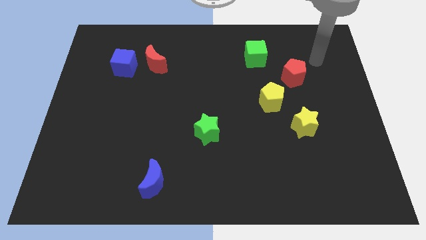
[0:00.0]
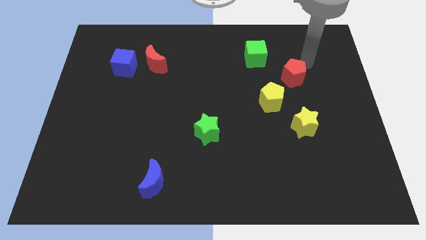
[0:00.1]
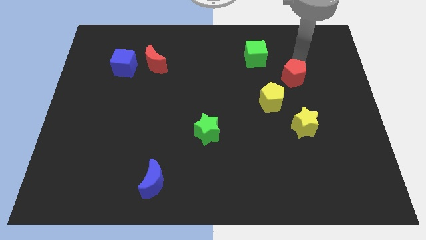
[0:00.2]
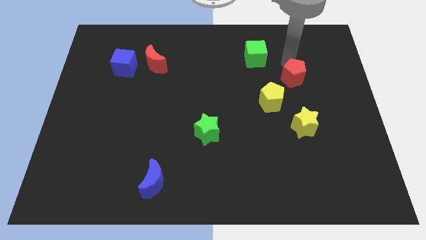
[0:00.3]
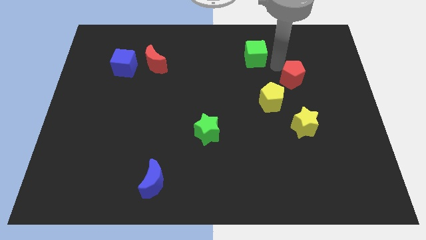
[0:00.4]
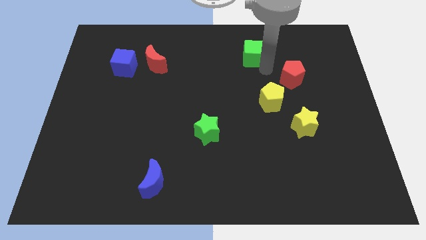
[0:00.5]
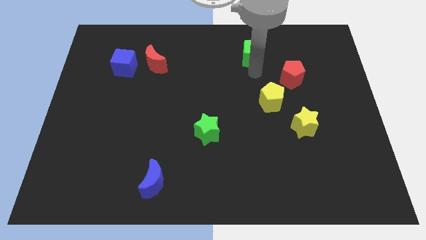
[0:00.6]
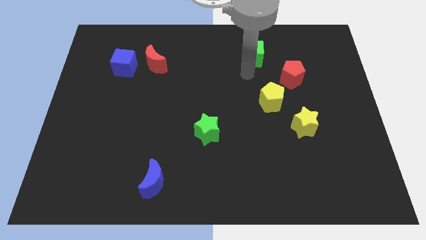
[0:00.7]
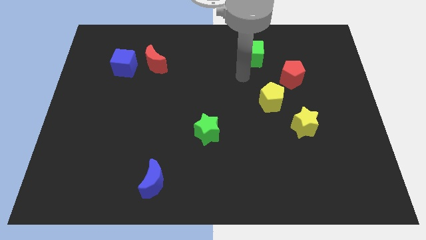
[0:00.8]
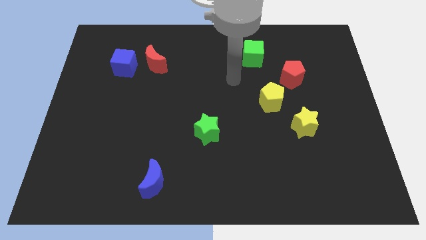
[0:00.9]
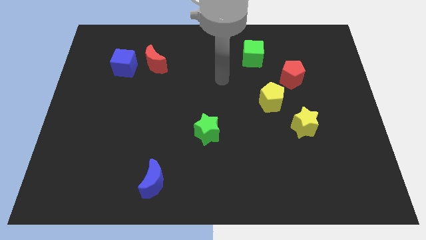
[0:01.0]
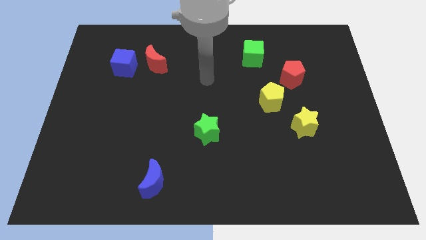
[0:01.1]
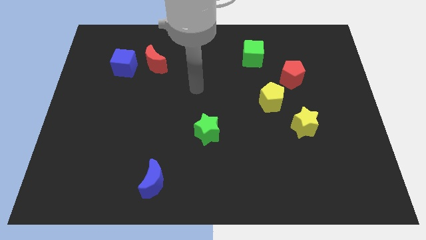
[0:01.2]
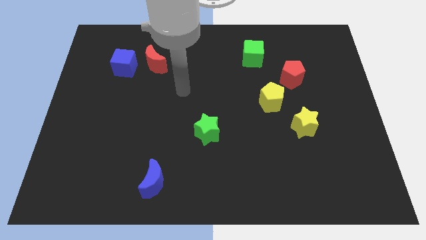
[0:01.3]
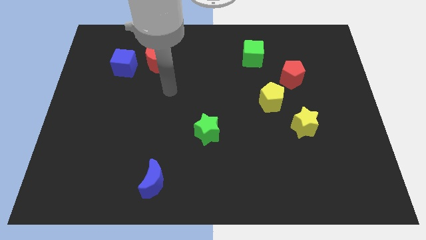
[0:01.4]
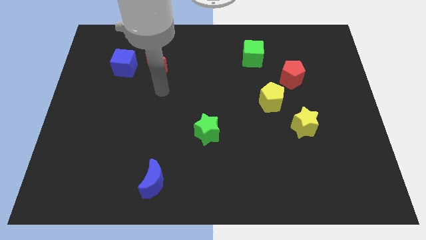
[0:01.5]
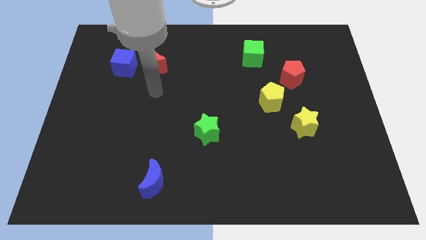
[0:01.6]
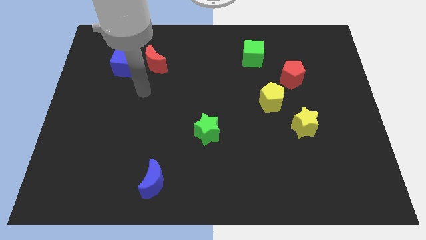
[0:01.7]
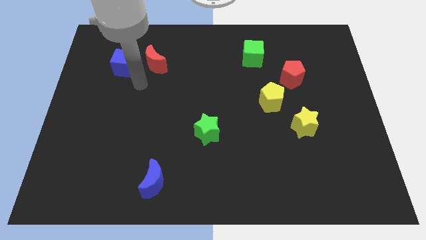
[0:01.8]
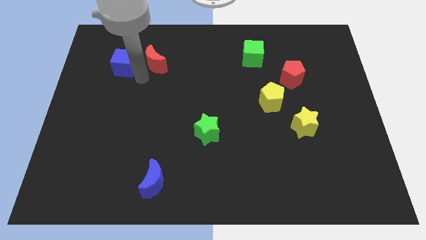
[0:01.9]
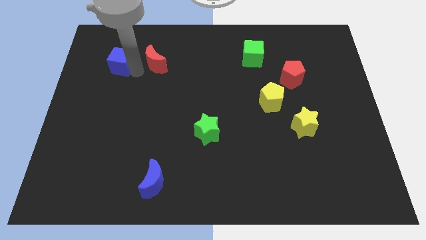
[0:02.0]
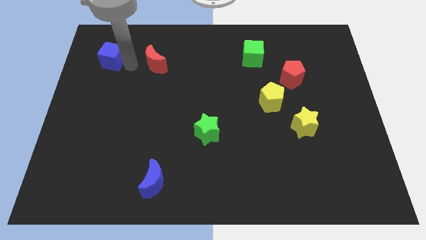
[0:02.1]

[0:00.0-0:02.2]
separate the red moon from the blue cube

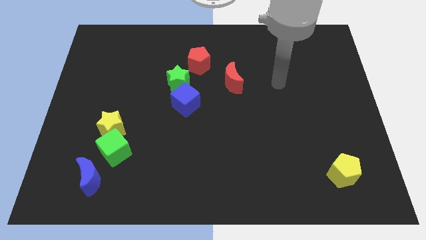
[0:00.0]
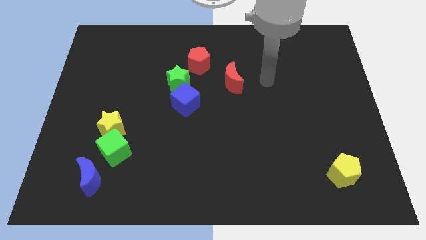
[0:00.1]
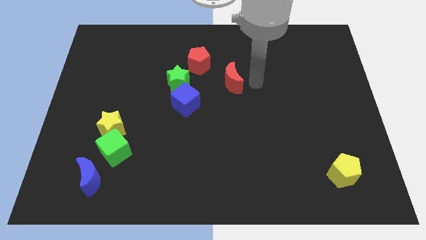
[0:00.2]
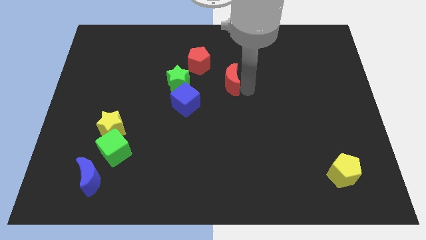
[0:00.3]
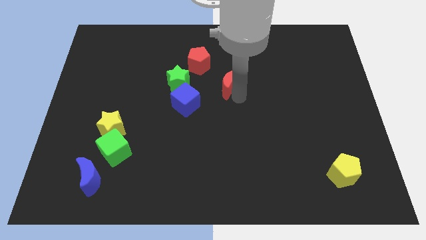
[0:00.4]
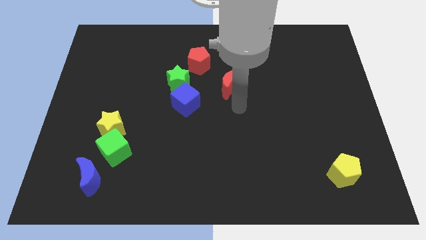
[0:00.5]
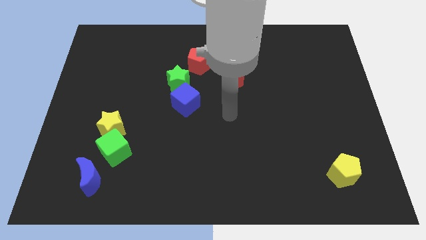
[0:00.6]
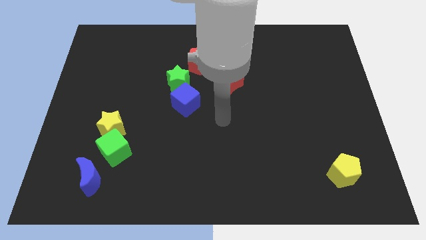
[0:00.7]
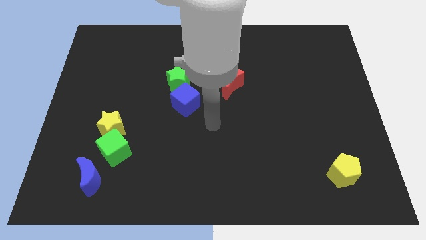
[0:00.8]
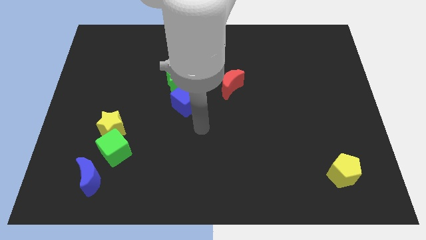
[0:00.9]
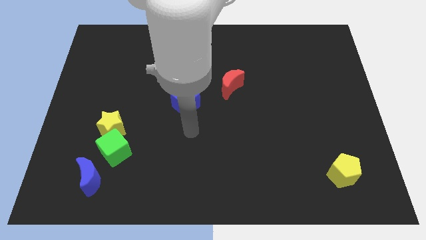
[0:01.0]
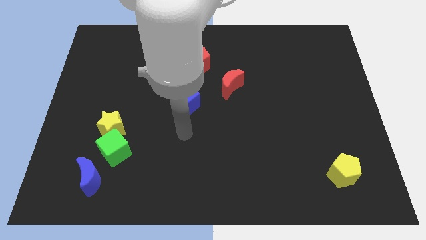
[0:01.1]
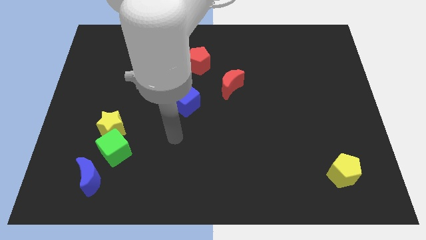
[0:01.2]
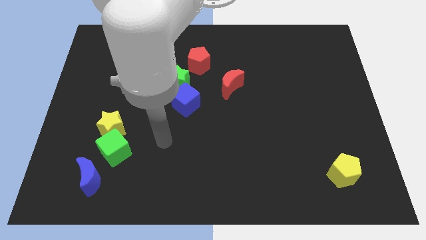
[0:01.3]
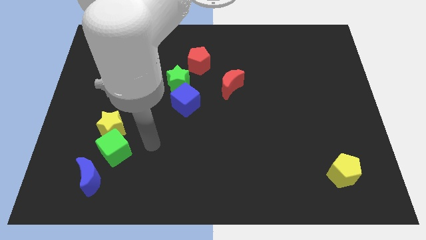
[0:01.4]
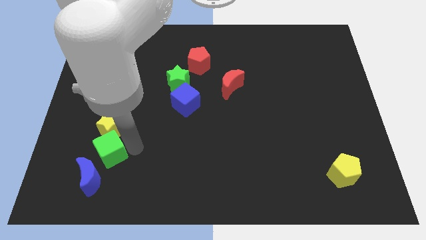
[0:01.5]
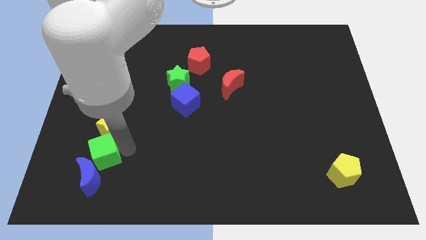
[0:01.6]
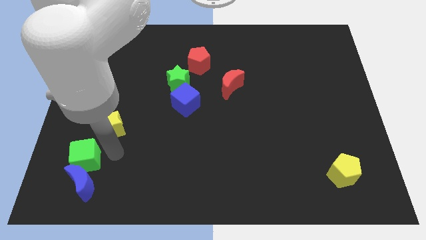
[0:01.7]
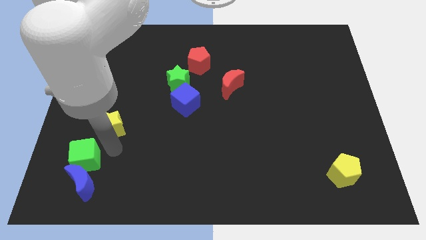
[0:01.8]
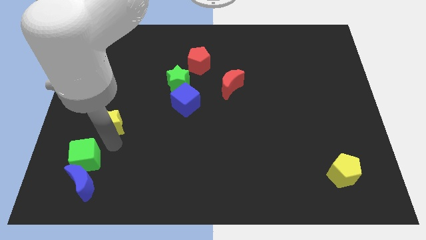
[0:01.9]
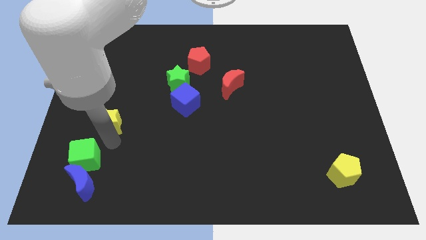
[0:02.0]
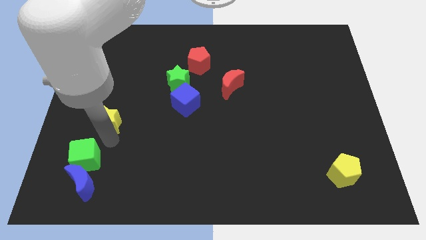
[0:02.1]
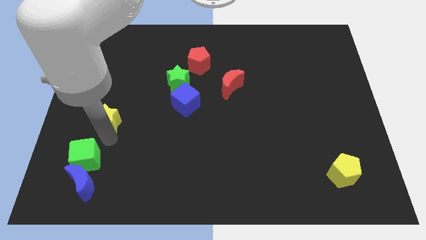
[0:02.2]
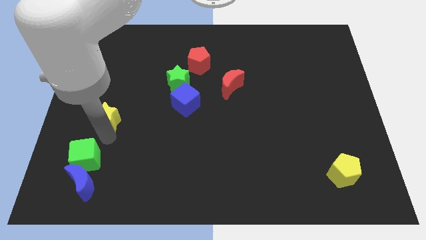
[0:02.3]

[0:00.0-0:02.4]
pull the yellow star apart from the green cube

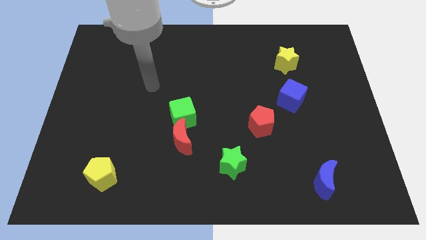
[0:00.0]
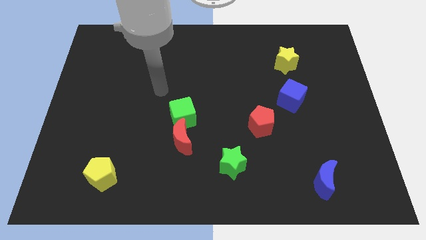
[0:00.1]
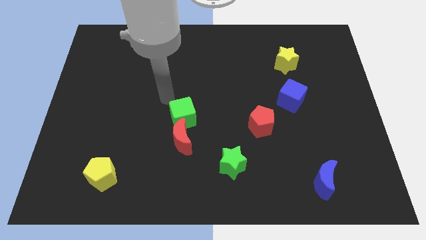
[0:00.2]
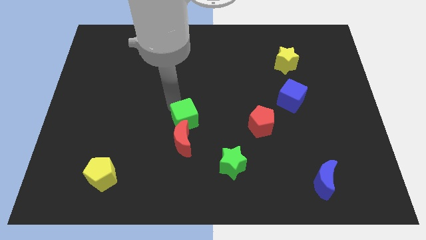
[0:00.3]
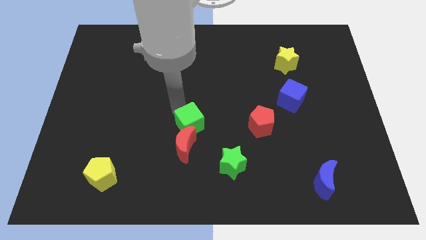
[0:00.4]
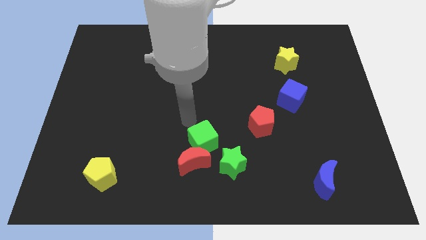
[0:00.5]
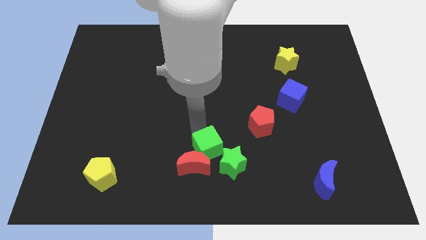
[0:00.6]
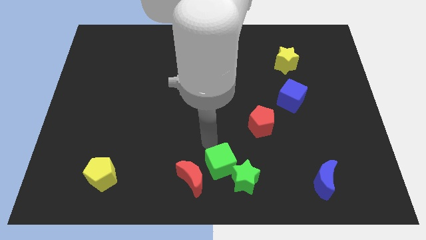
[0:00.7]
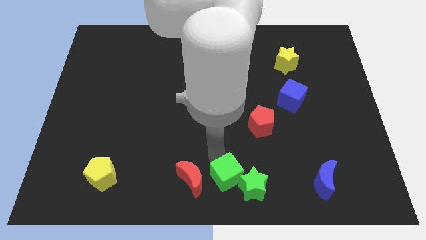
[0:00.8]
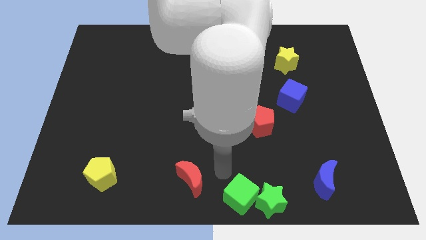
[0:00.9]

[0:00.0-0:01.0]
pull the red moon apart from the green cube

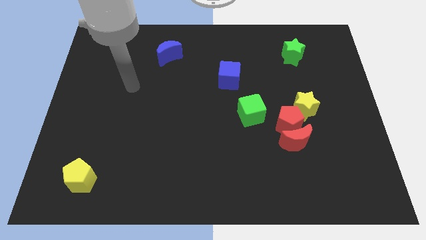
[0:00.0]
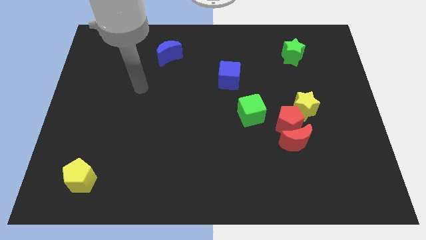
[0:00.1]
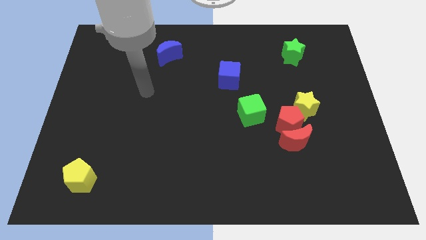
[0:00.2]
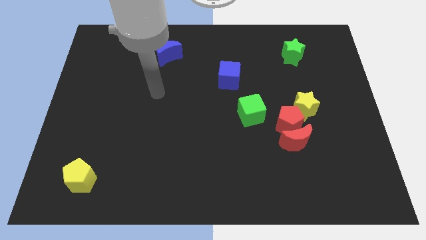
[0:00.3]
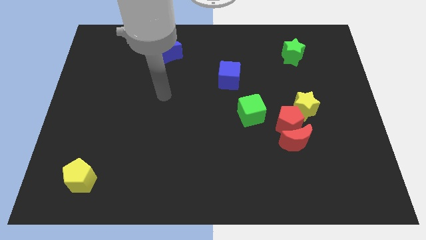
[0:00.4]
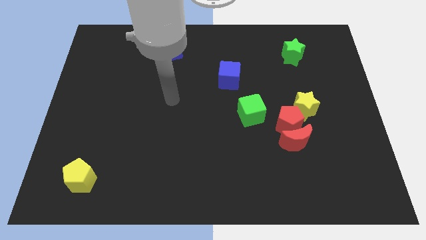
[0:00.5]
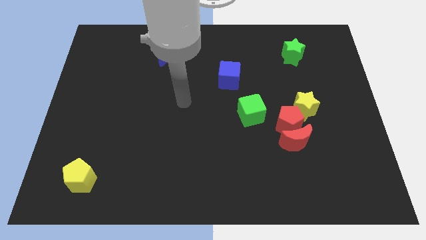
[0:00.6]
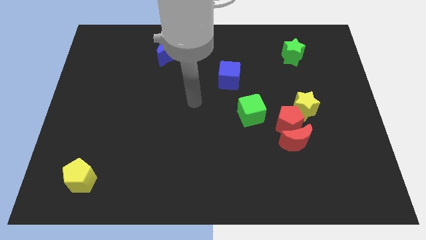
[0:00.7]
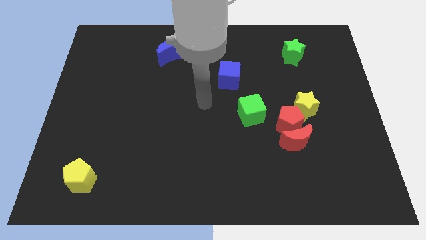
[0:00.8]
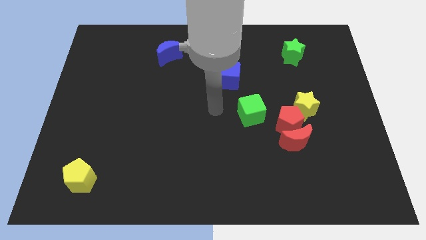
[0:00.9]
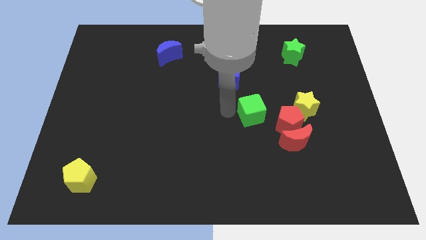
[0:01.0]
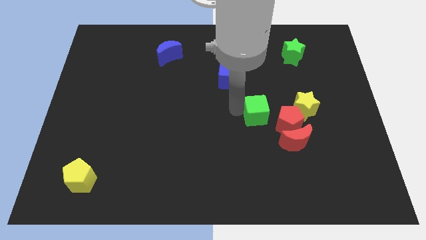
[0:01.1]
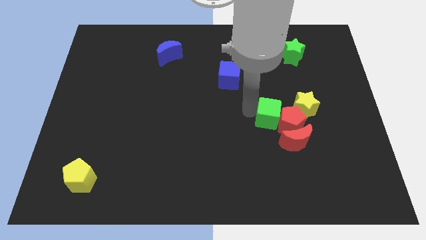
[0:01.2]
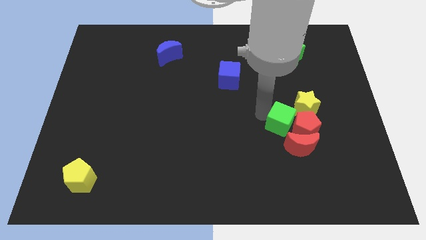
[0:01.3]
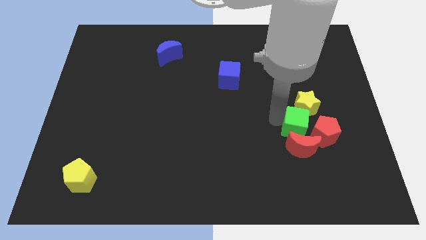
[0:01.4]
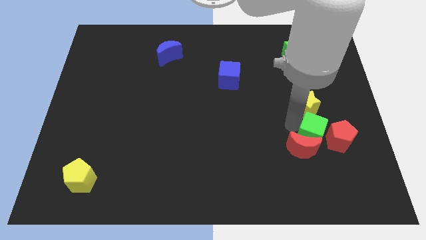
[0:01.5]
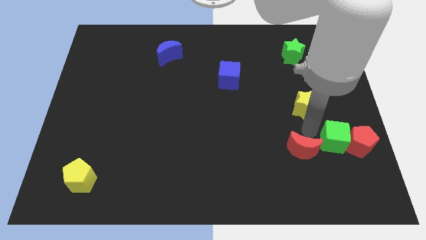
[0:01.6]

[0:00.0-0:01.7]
move the red pentagon away from the clump

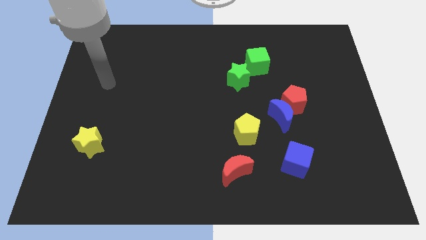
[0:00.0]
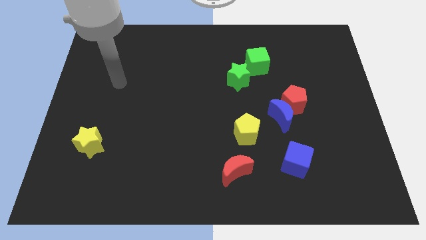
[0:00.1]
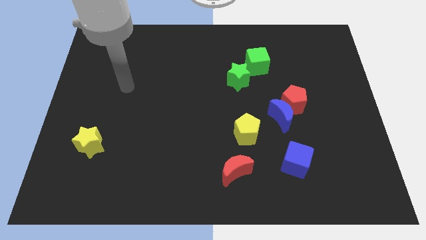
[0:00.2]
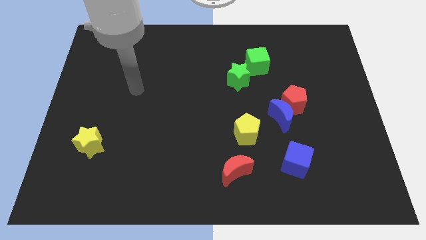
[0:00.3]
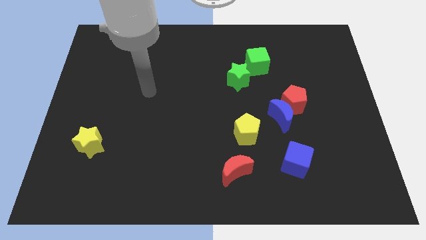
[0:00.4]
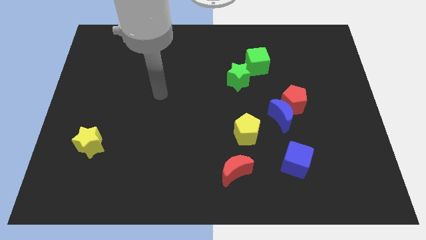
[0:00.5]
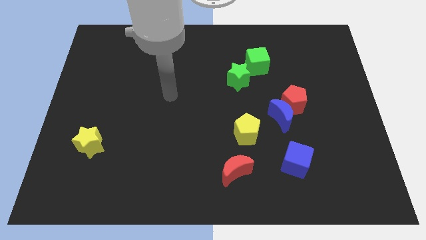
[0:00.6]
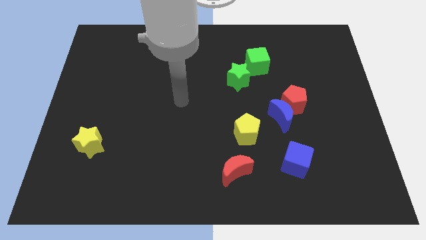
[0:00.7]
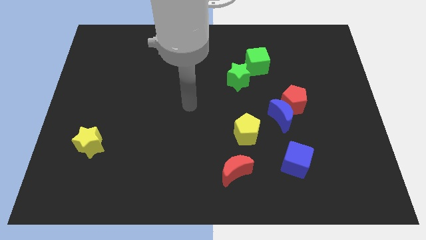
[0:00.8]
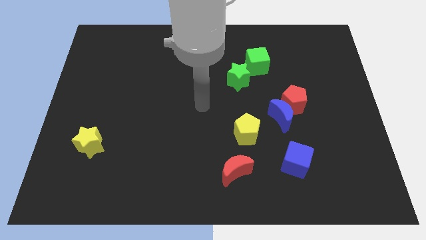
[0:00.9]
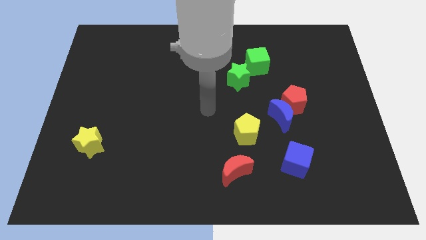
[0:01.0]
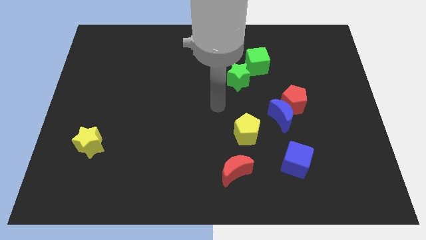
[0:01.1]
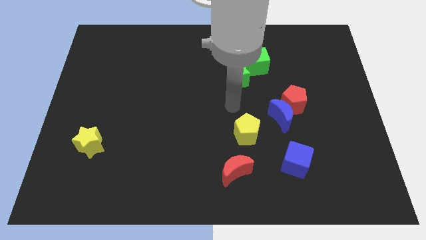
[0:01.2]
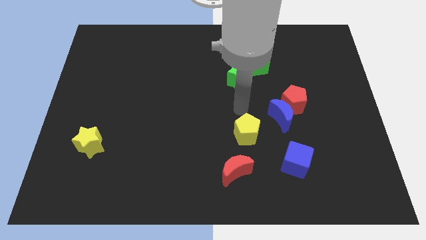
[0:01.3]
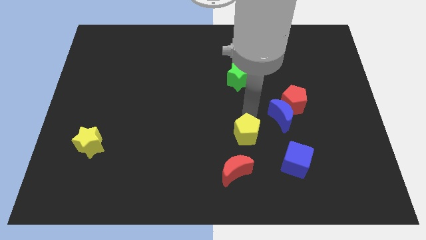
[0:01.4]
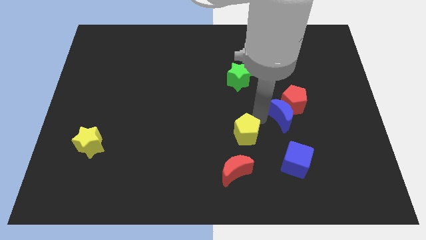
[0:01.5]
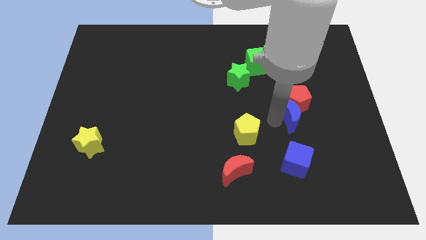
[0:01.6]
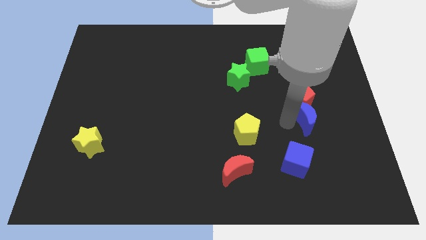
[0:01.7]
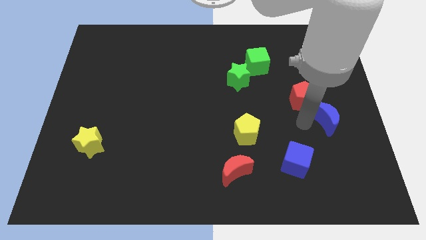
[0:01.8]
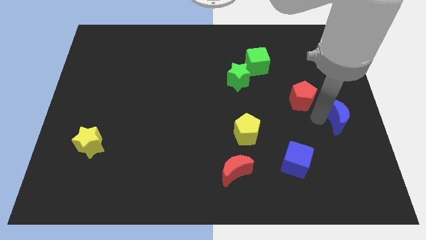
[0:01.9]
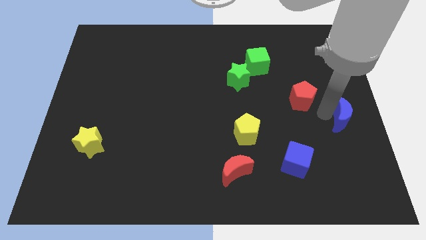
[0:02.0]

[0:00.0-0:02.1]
pull the red pentagon apart from the blue moon

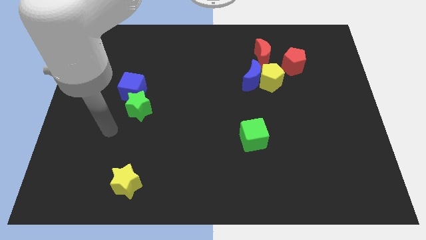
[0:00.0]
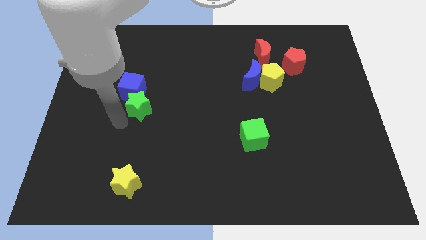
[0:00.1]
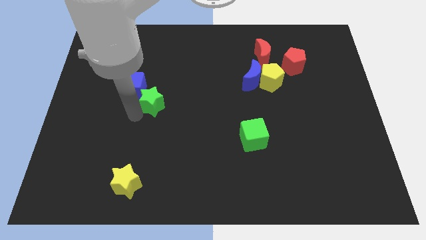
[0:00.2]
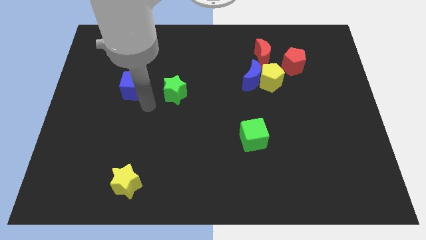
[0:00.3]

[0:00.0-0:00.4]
separate the blue cube from the green star
